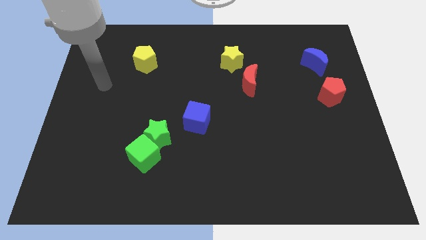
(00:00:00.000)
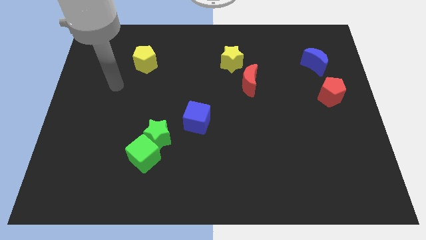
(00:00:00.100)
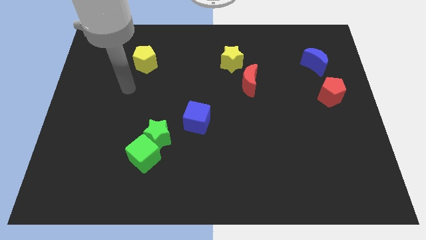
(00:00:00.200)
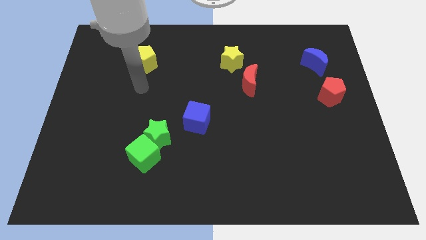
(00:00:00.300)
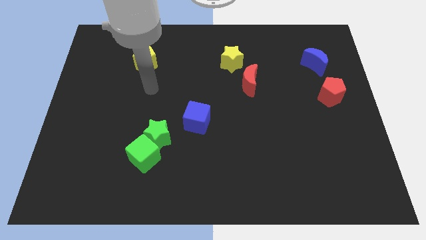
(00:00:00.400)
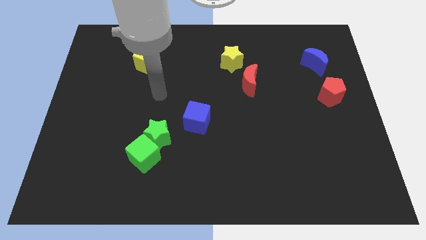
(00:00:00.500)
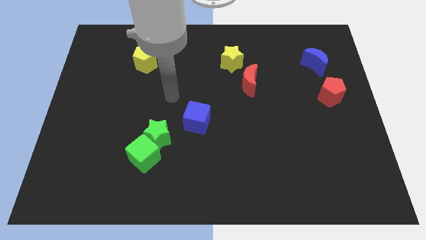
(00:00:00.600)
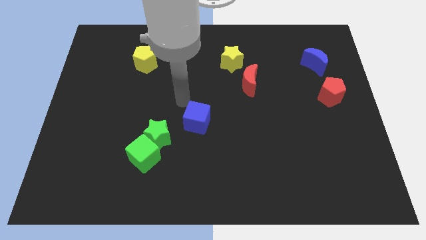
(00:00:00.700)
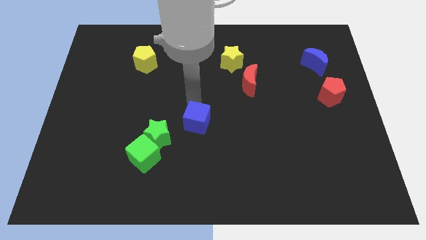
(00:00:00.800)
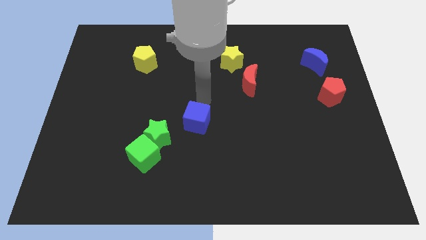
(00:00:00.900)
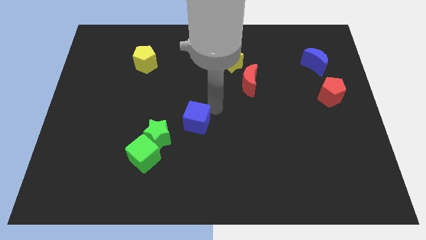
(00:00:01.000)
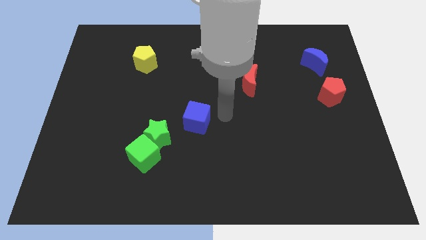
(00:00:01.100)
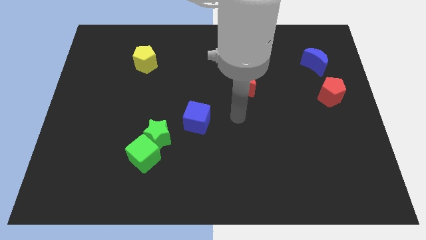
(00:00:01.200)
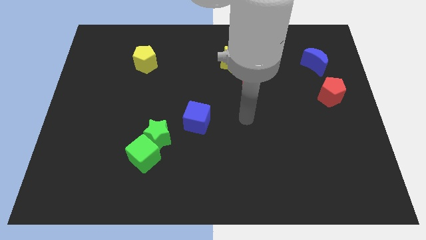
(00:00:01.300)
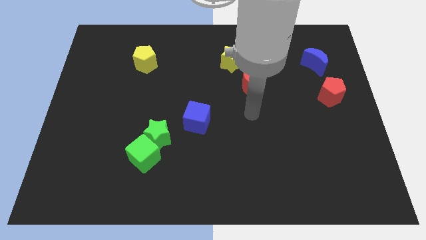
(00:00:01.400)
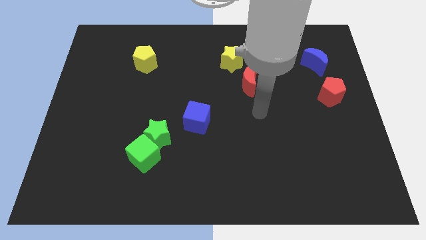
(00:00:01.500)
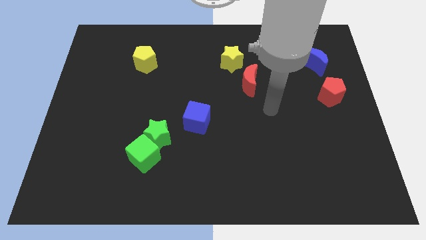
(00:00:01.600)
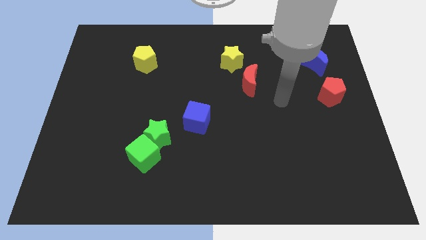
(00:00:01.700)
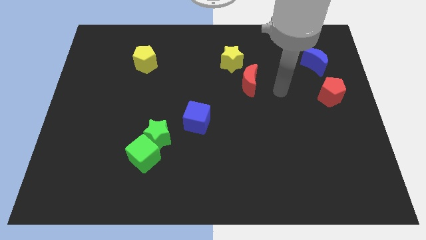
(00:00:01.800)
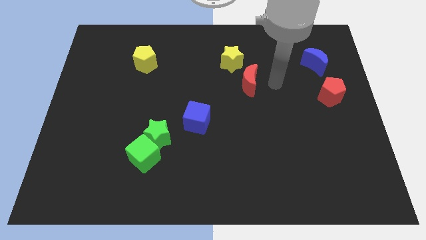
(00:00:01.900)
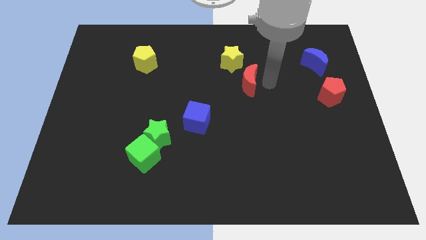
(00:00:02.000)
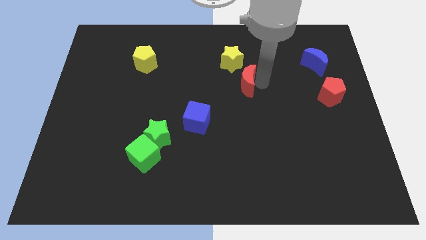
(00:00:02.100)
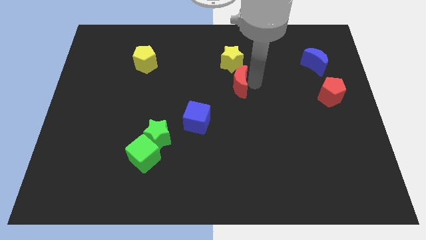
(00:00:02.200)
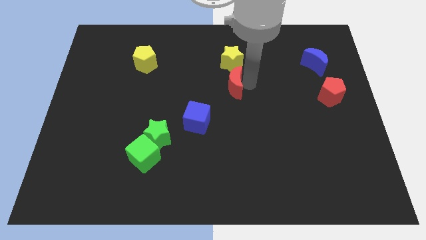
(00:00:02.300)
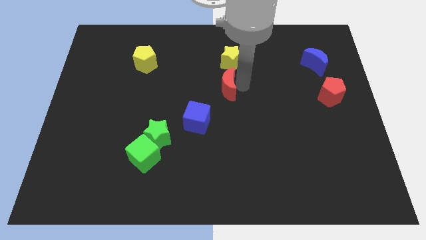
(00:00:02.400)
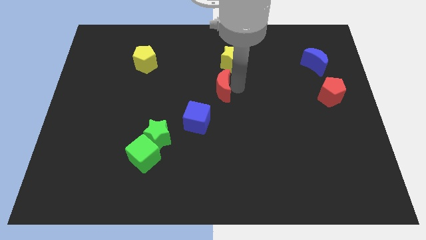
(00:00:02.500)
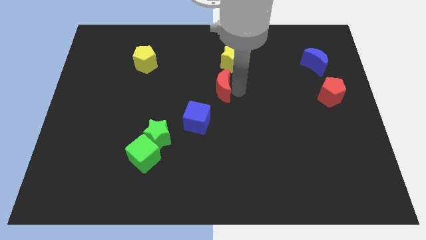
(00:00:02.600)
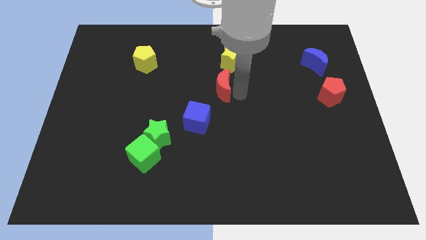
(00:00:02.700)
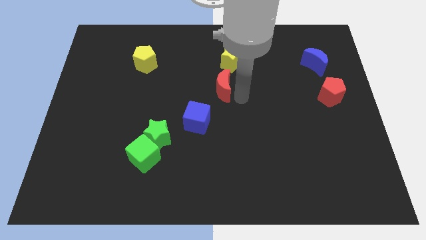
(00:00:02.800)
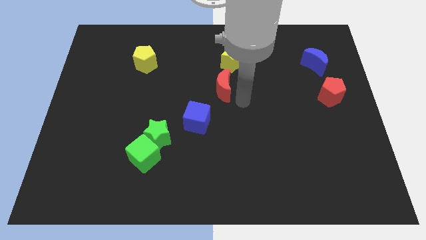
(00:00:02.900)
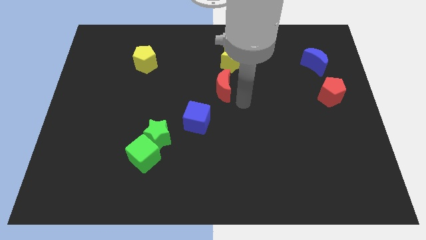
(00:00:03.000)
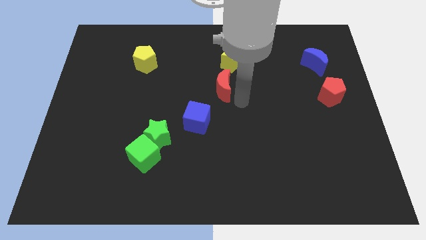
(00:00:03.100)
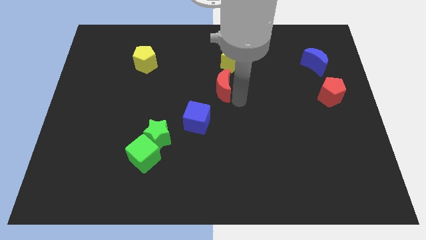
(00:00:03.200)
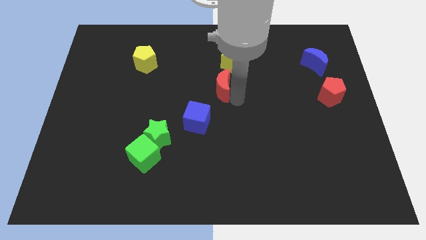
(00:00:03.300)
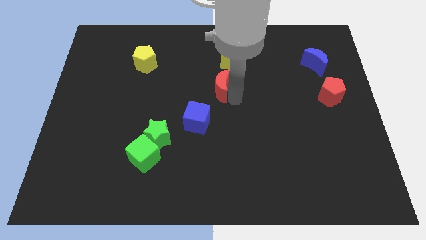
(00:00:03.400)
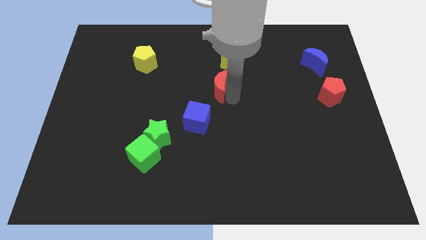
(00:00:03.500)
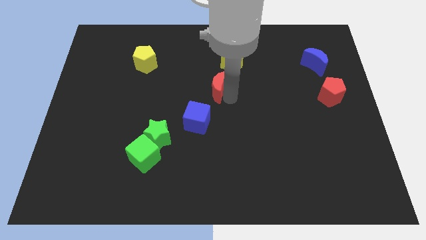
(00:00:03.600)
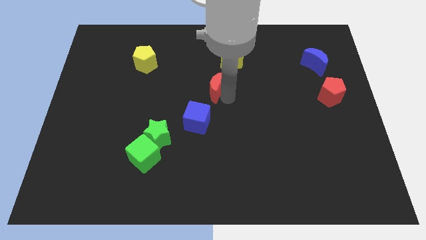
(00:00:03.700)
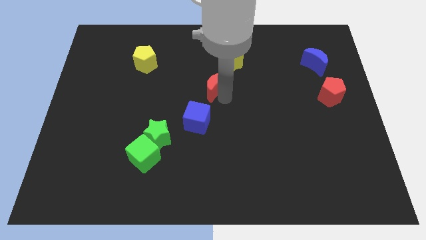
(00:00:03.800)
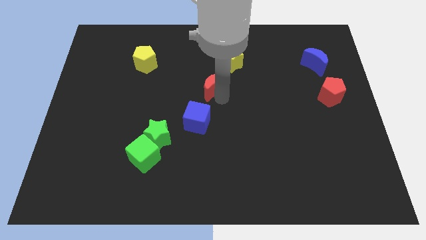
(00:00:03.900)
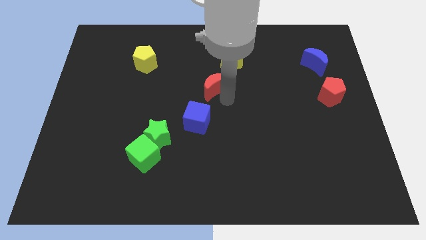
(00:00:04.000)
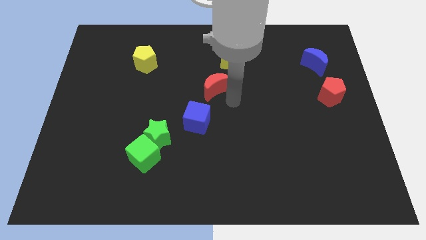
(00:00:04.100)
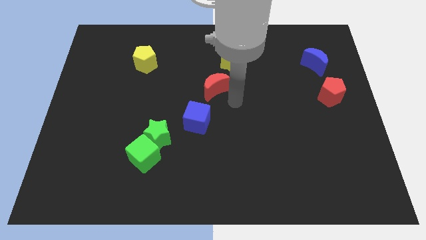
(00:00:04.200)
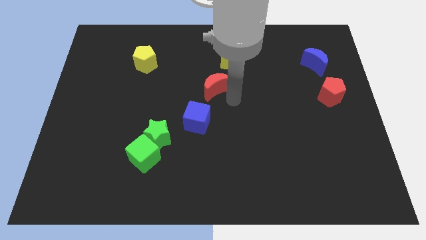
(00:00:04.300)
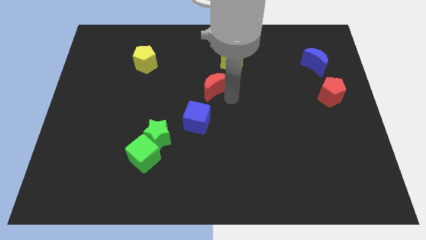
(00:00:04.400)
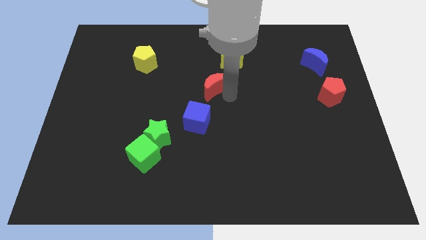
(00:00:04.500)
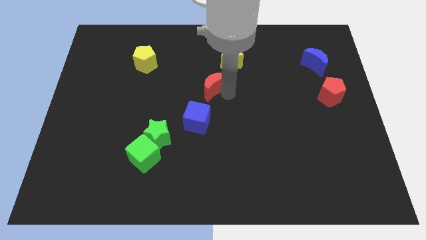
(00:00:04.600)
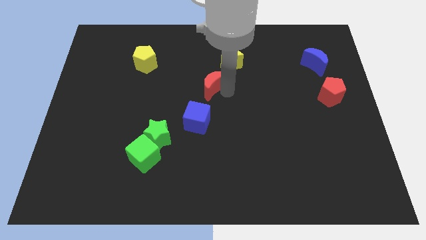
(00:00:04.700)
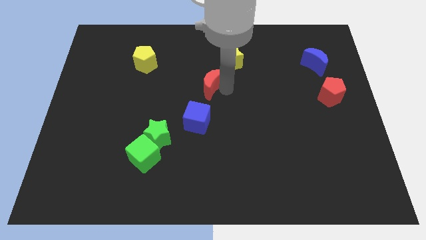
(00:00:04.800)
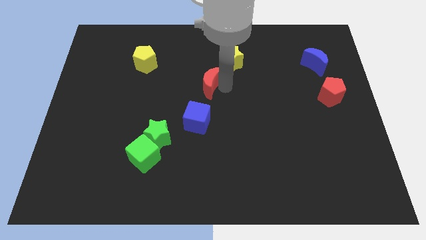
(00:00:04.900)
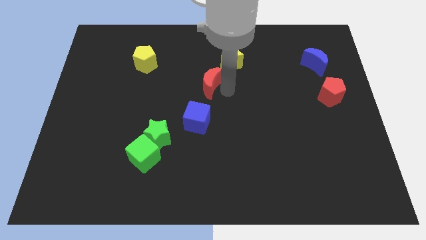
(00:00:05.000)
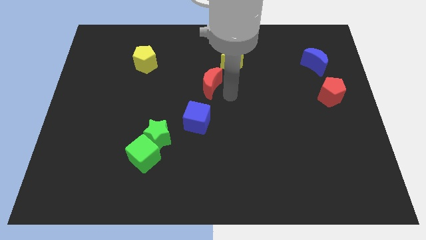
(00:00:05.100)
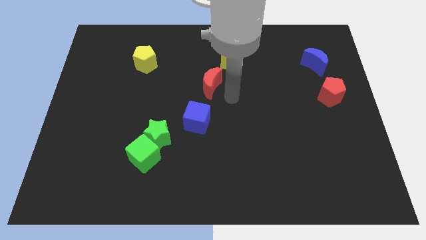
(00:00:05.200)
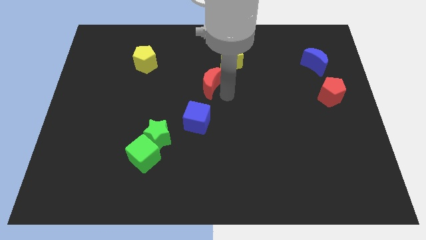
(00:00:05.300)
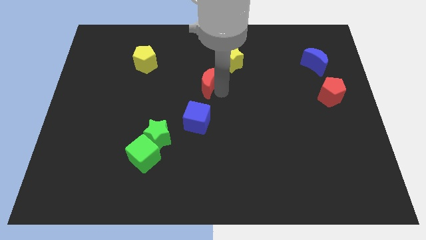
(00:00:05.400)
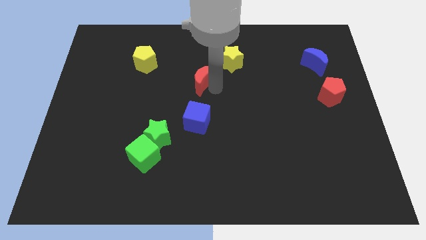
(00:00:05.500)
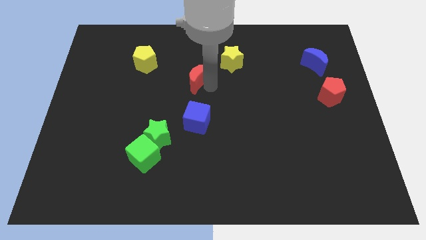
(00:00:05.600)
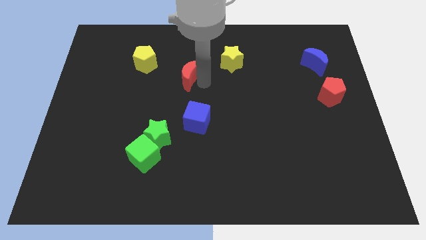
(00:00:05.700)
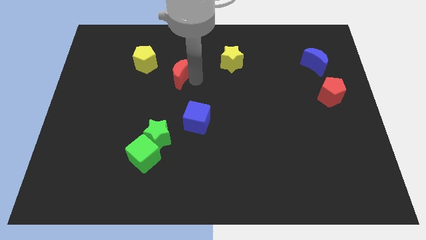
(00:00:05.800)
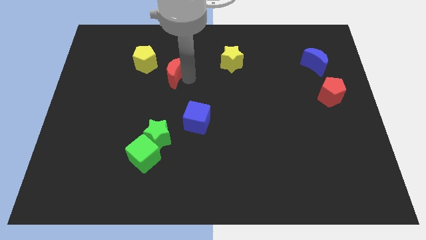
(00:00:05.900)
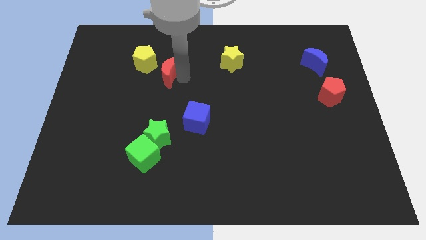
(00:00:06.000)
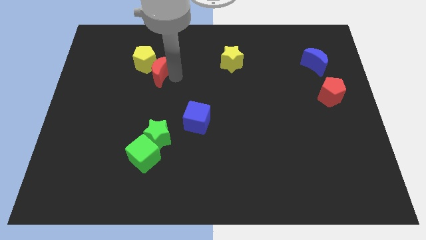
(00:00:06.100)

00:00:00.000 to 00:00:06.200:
push the red moon next to the yellow pentagon

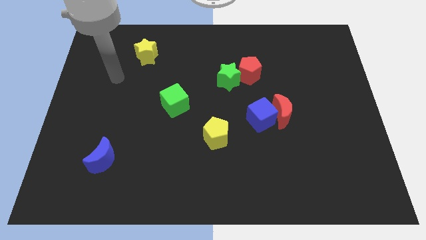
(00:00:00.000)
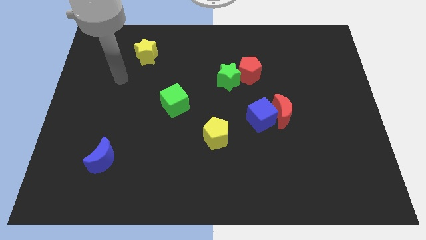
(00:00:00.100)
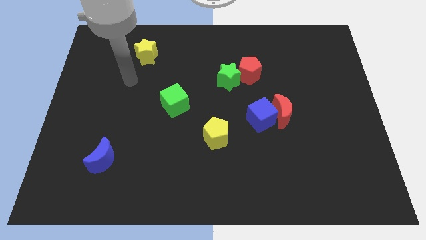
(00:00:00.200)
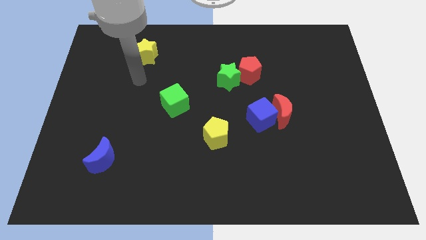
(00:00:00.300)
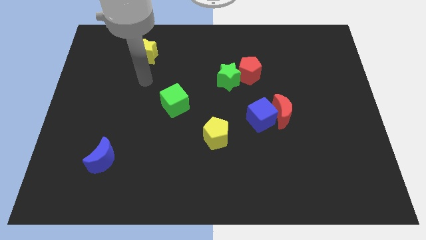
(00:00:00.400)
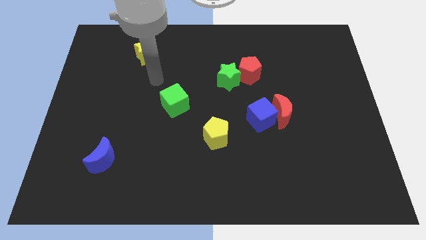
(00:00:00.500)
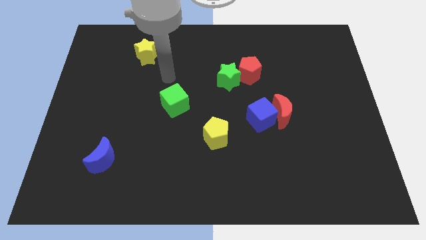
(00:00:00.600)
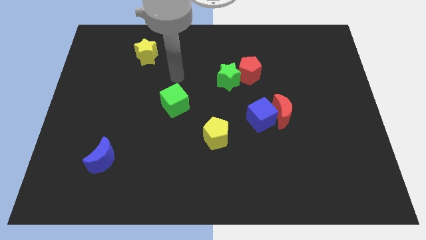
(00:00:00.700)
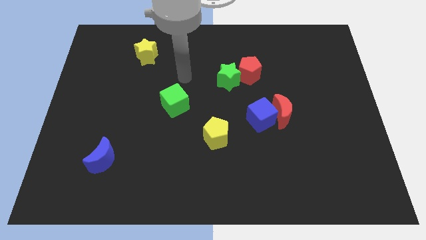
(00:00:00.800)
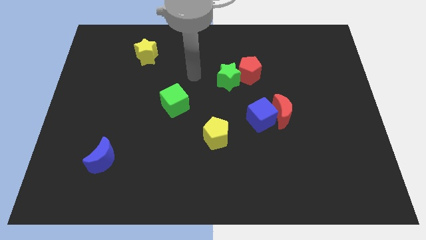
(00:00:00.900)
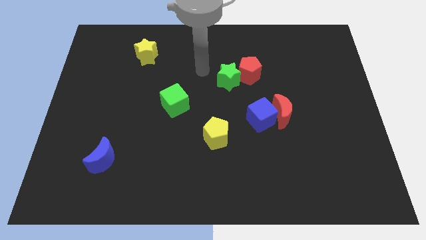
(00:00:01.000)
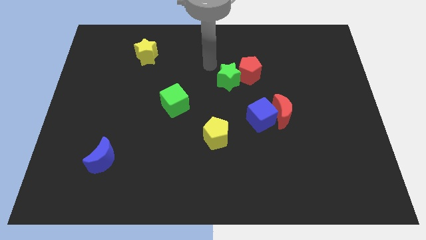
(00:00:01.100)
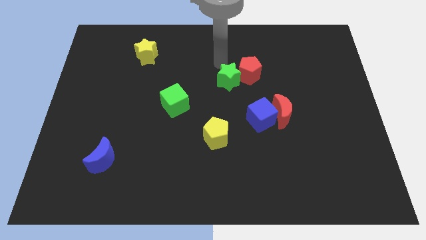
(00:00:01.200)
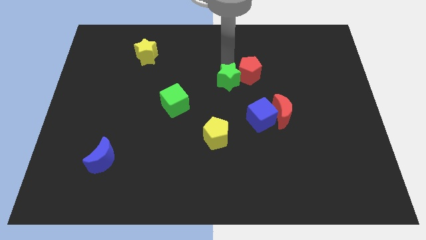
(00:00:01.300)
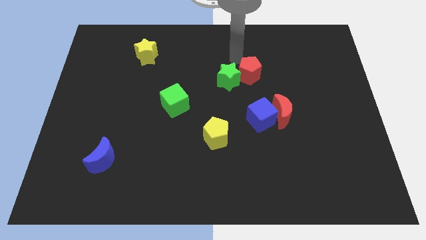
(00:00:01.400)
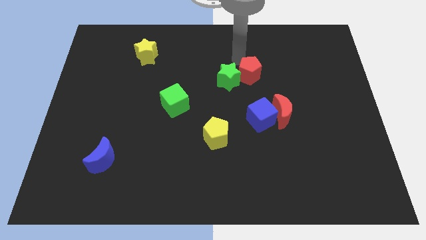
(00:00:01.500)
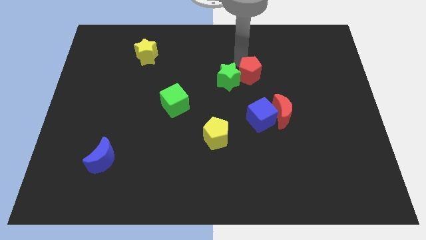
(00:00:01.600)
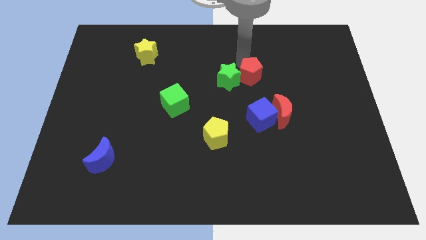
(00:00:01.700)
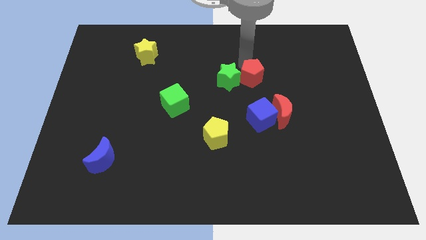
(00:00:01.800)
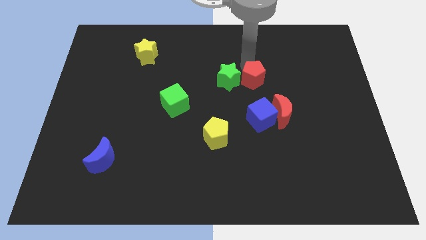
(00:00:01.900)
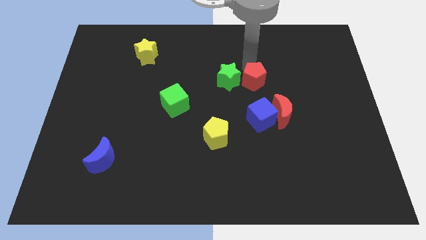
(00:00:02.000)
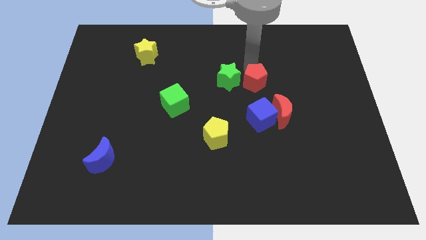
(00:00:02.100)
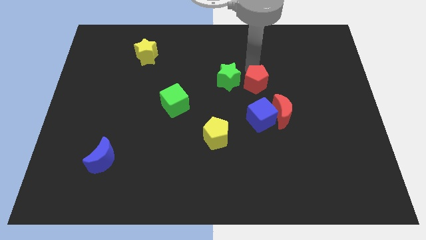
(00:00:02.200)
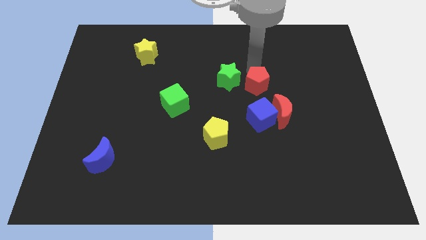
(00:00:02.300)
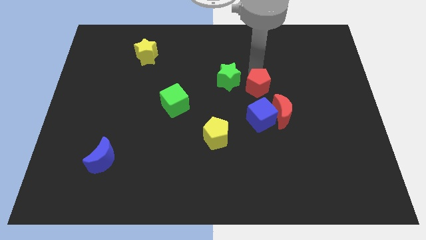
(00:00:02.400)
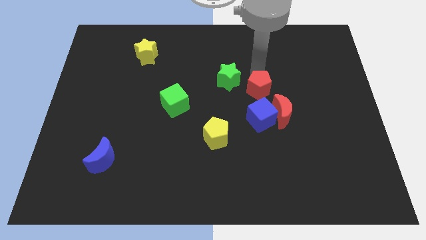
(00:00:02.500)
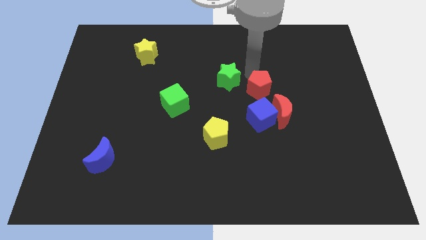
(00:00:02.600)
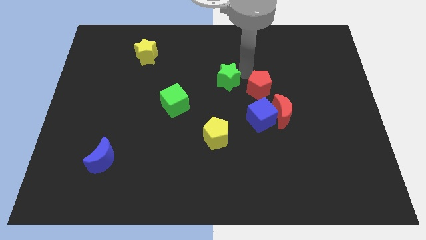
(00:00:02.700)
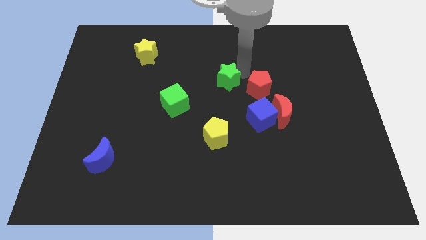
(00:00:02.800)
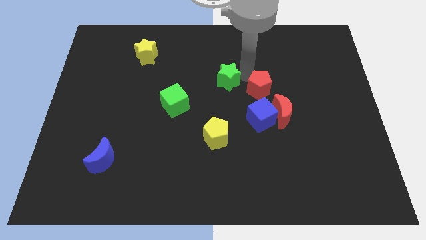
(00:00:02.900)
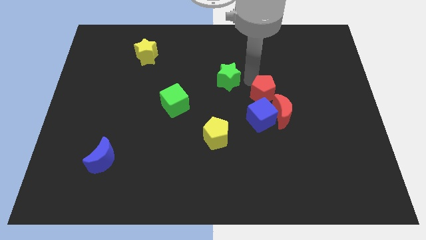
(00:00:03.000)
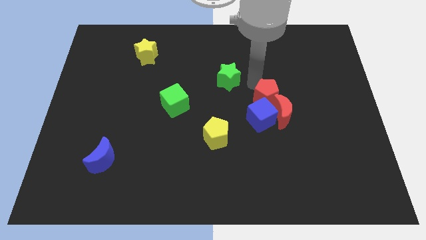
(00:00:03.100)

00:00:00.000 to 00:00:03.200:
put the red pentagon towards the red moon
